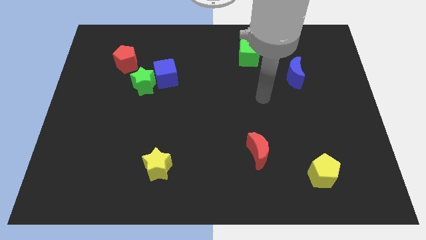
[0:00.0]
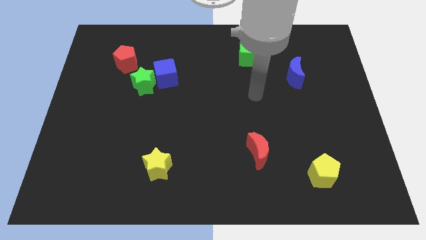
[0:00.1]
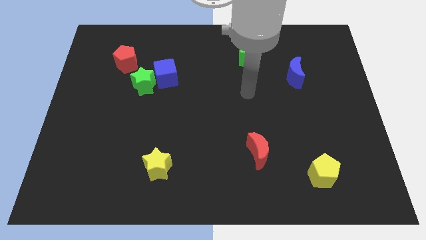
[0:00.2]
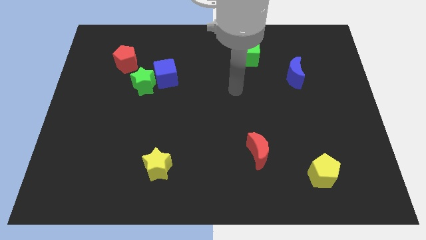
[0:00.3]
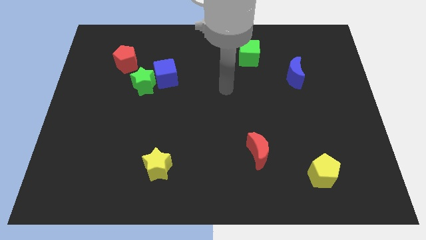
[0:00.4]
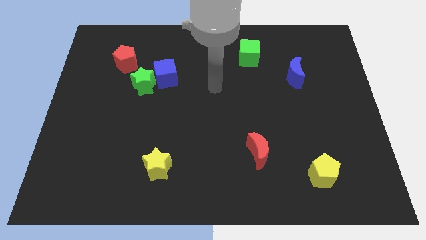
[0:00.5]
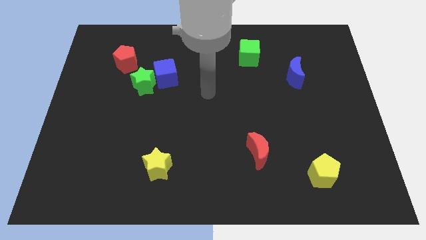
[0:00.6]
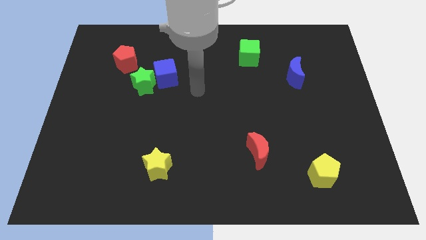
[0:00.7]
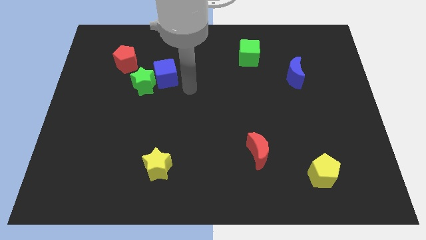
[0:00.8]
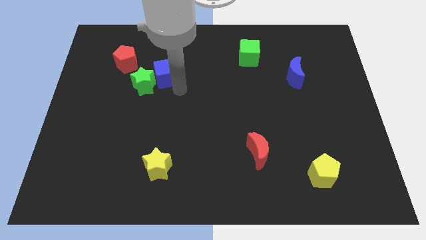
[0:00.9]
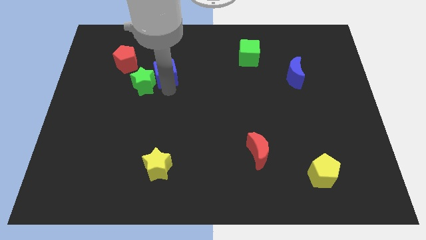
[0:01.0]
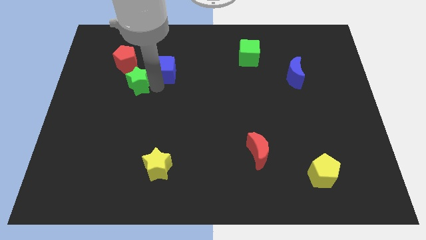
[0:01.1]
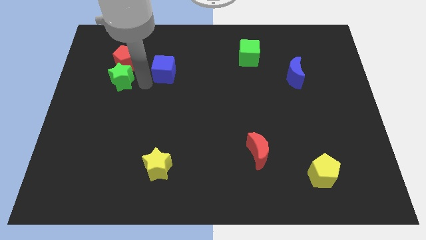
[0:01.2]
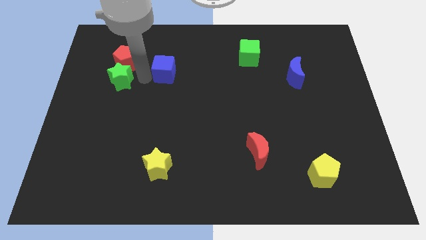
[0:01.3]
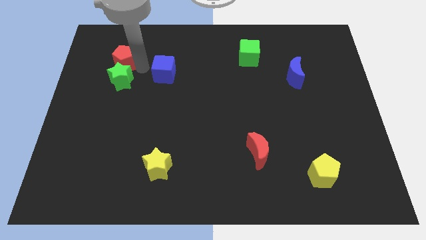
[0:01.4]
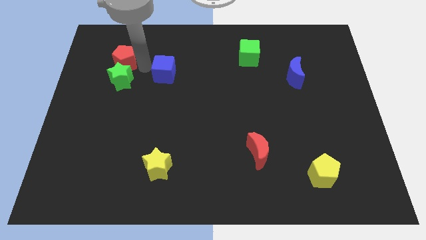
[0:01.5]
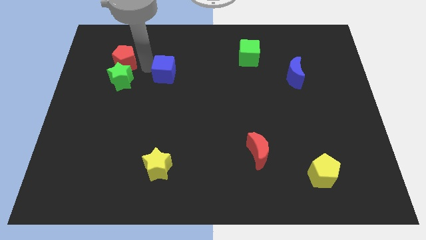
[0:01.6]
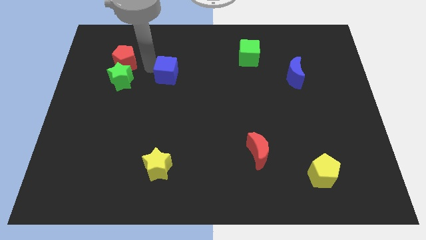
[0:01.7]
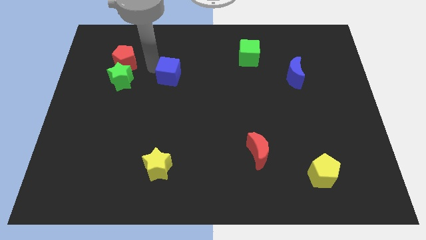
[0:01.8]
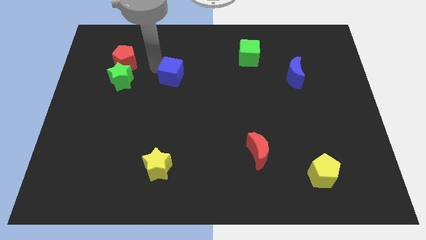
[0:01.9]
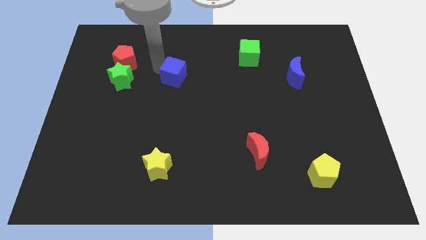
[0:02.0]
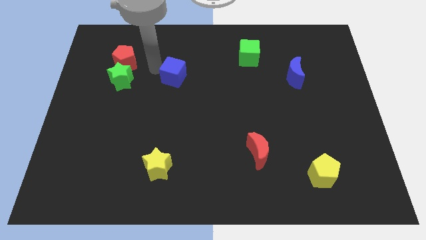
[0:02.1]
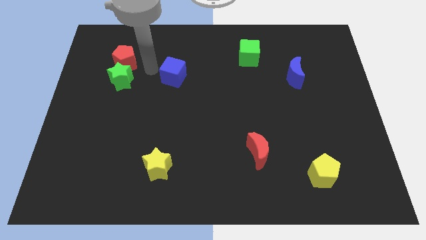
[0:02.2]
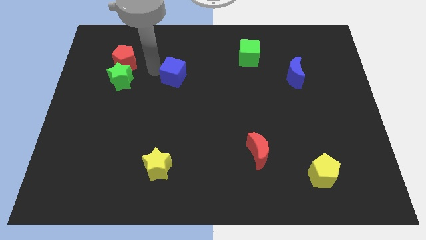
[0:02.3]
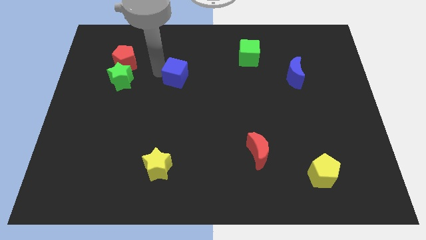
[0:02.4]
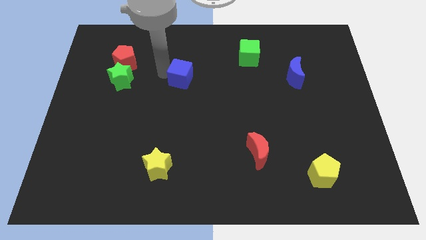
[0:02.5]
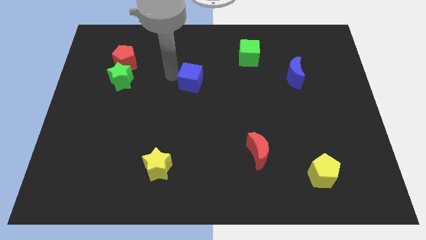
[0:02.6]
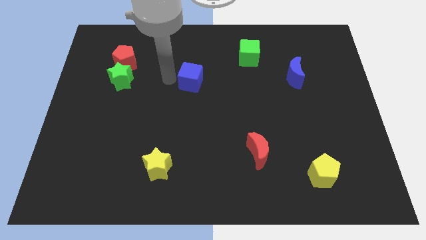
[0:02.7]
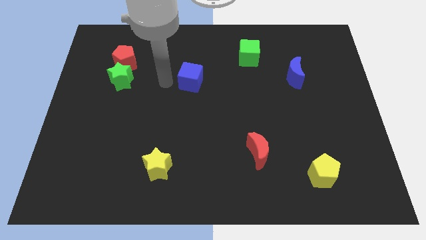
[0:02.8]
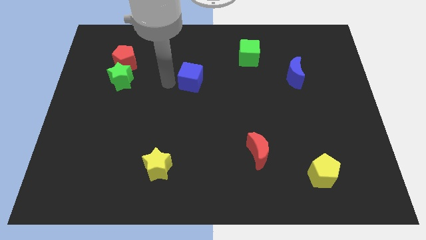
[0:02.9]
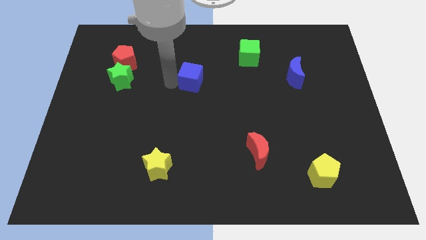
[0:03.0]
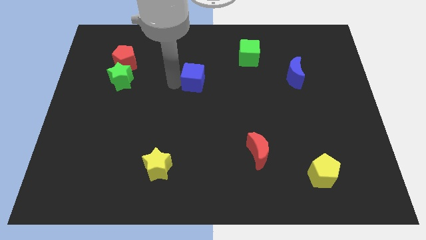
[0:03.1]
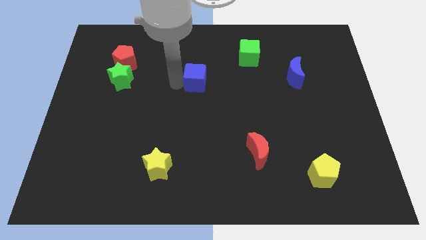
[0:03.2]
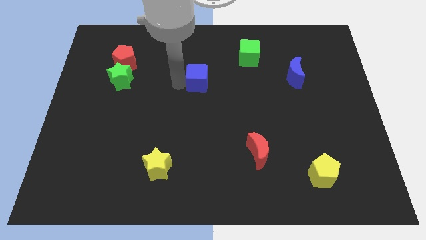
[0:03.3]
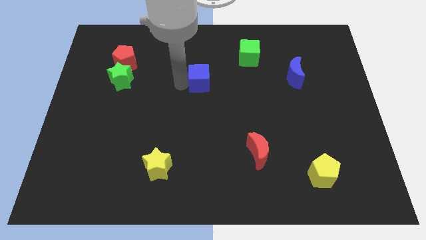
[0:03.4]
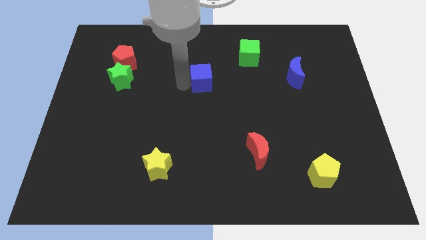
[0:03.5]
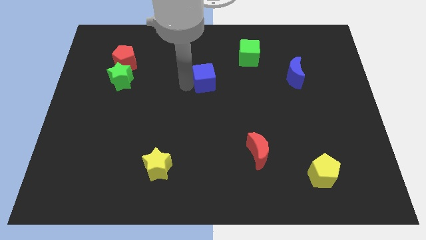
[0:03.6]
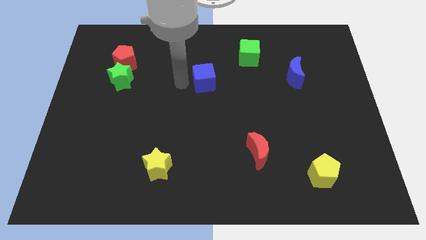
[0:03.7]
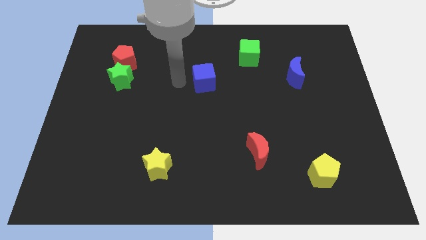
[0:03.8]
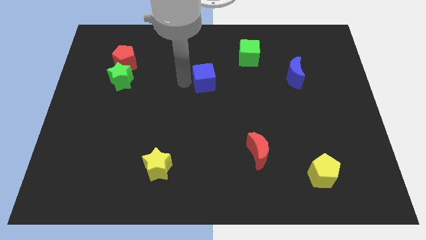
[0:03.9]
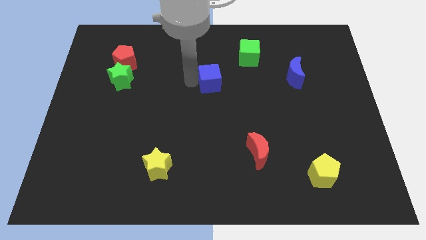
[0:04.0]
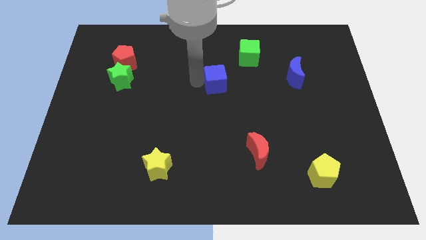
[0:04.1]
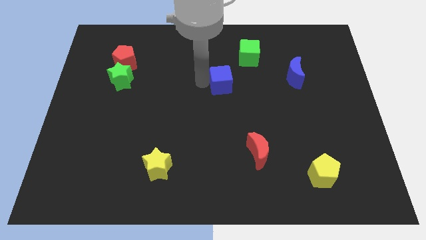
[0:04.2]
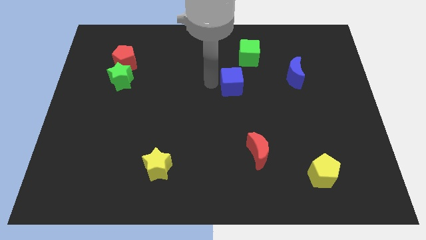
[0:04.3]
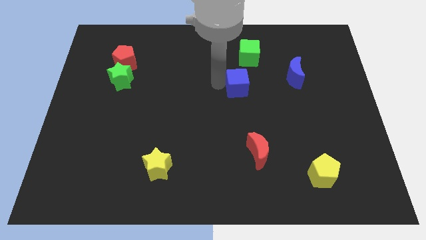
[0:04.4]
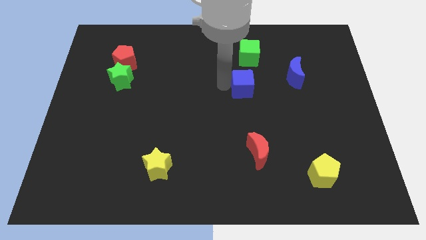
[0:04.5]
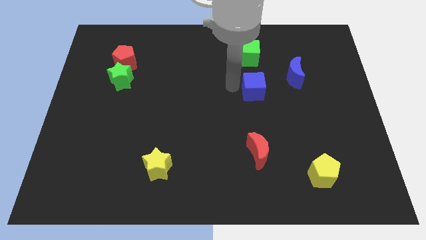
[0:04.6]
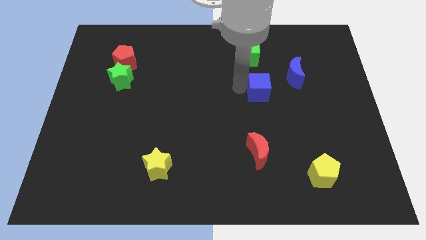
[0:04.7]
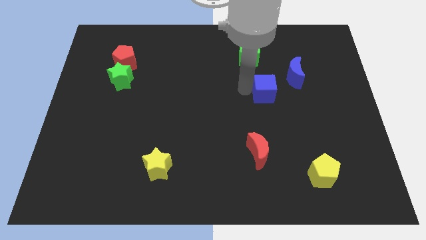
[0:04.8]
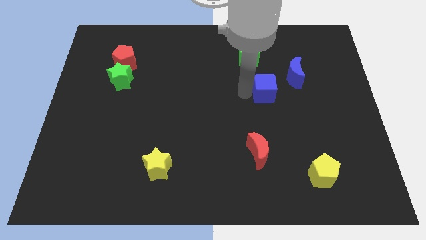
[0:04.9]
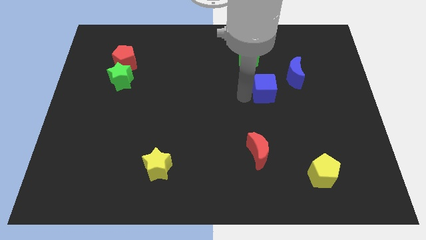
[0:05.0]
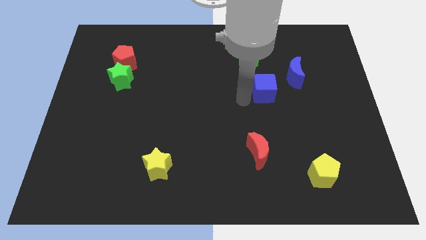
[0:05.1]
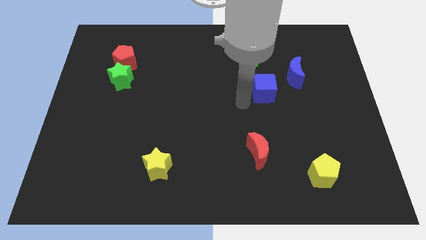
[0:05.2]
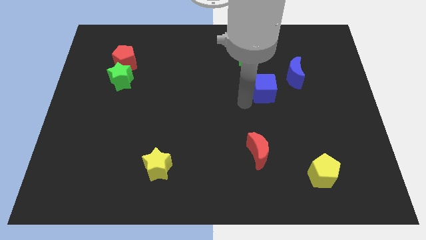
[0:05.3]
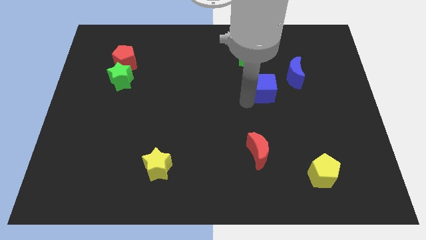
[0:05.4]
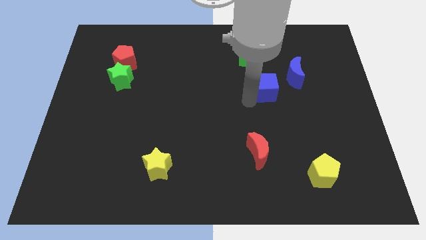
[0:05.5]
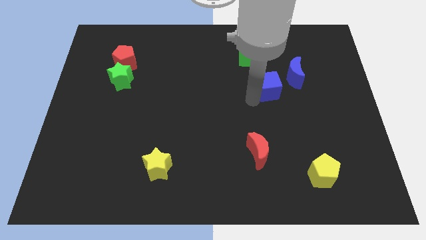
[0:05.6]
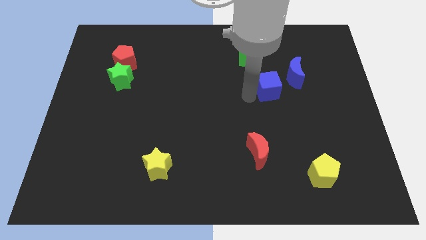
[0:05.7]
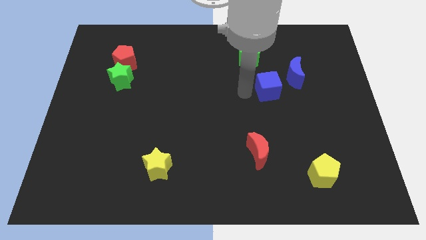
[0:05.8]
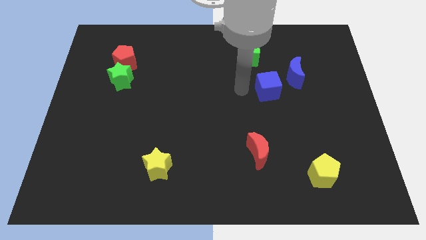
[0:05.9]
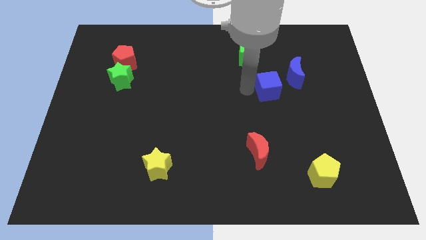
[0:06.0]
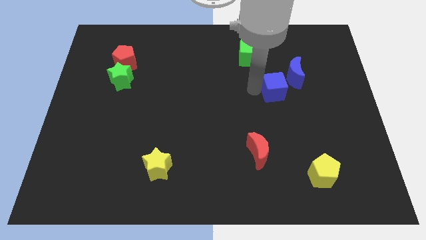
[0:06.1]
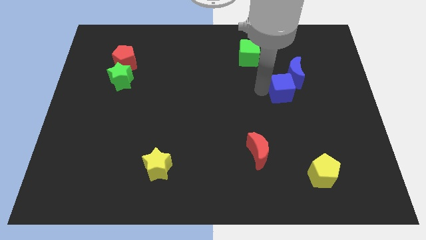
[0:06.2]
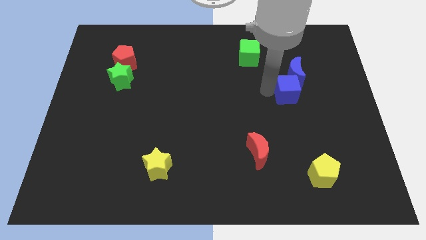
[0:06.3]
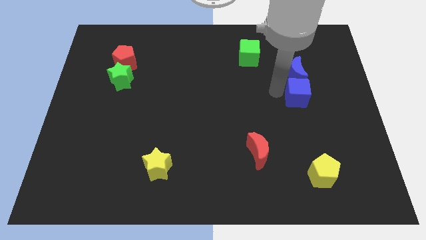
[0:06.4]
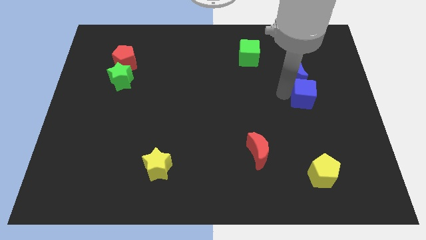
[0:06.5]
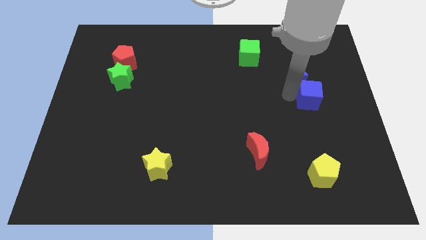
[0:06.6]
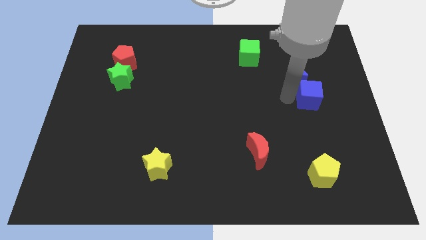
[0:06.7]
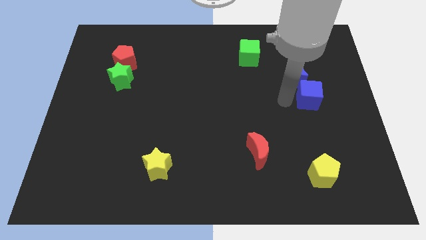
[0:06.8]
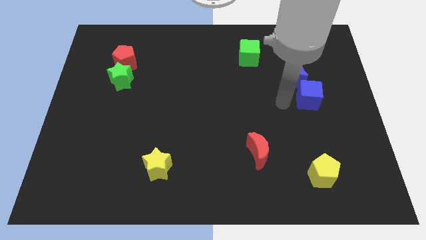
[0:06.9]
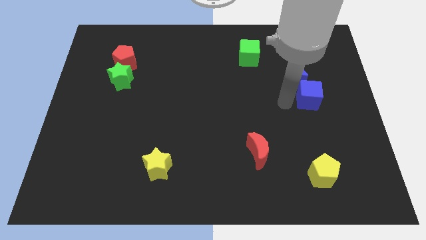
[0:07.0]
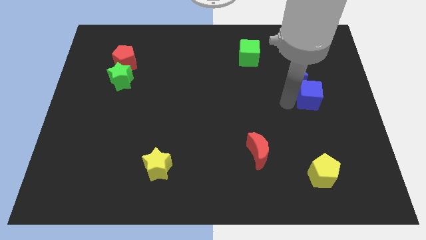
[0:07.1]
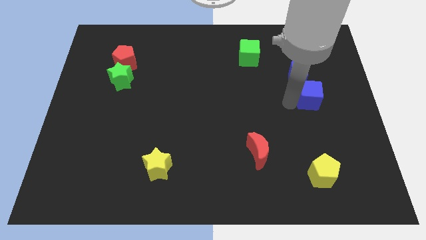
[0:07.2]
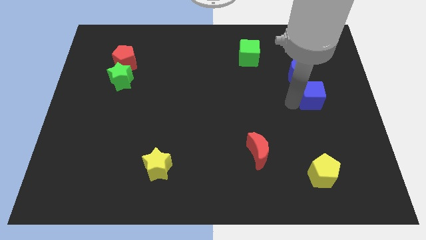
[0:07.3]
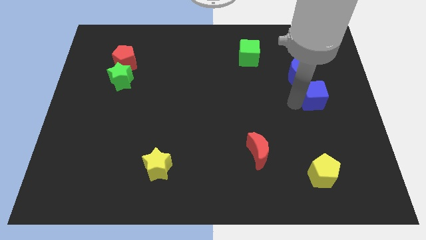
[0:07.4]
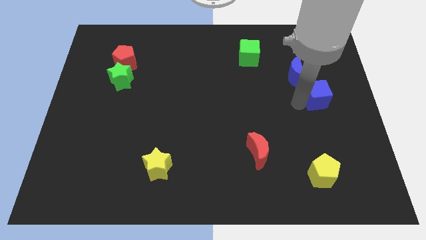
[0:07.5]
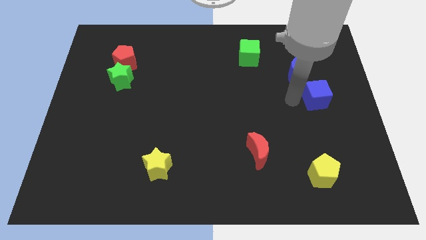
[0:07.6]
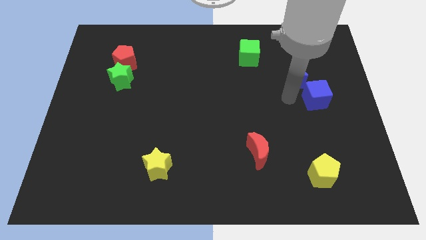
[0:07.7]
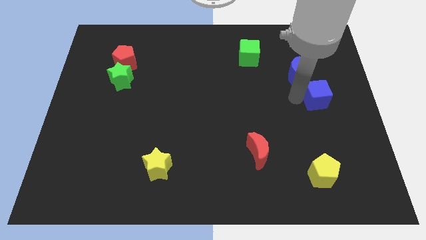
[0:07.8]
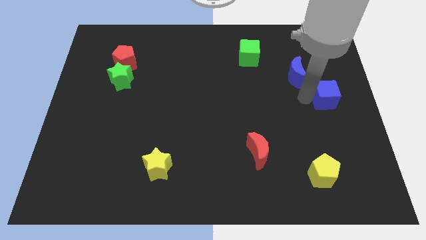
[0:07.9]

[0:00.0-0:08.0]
put the blue cube to the right side
